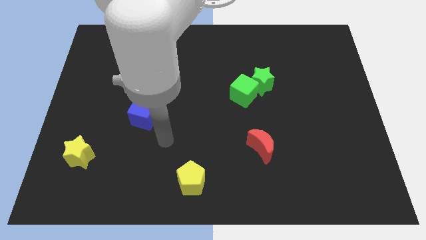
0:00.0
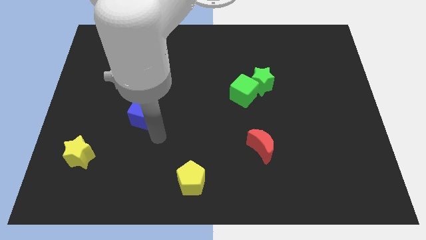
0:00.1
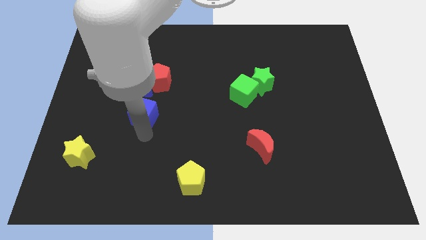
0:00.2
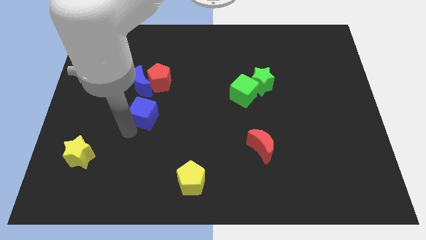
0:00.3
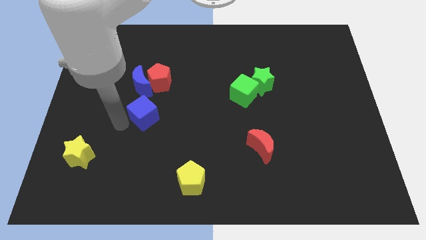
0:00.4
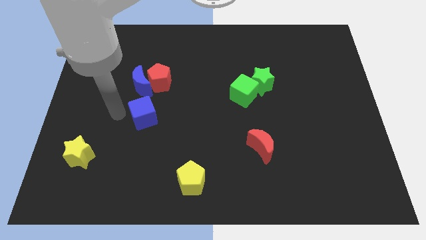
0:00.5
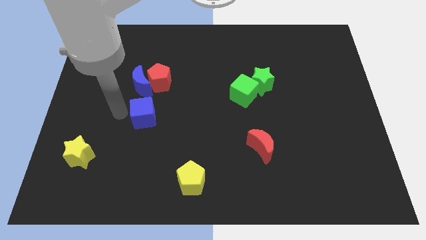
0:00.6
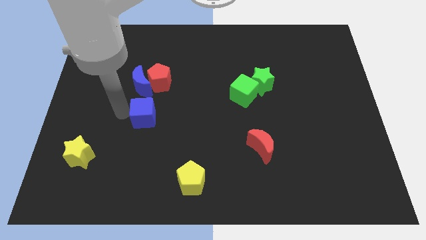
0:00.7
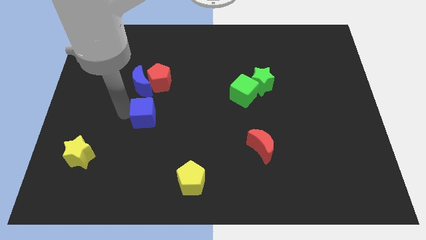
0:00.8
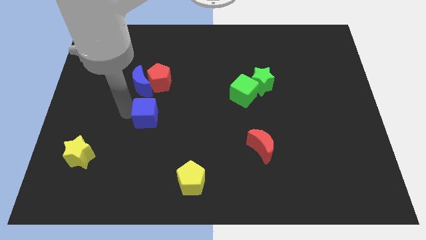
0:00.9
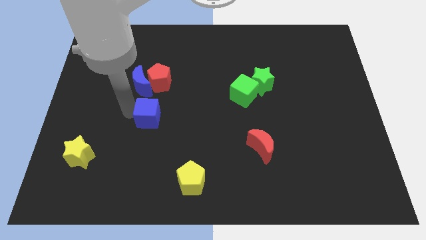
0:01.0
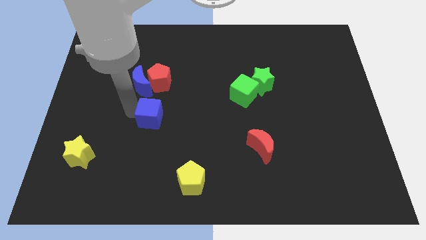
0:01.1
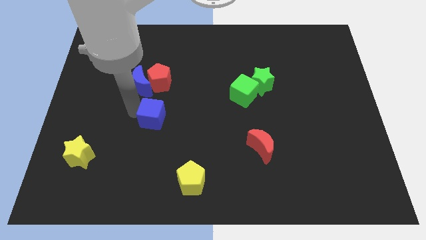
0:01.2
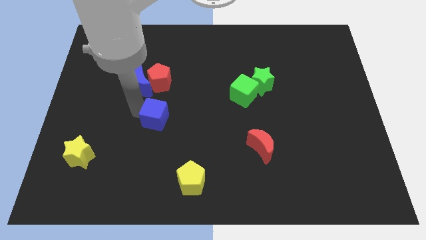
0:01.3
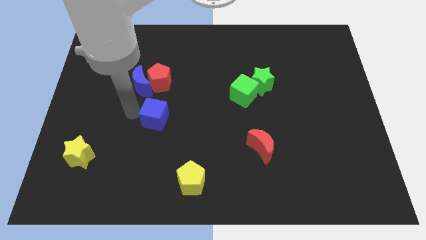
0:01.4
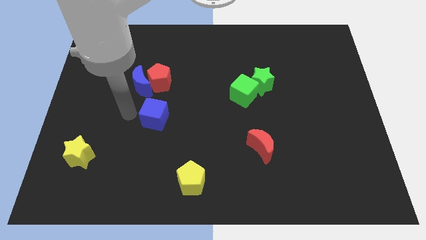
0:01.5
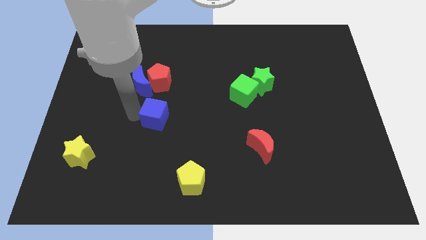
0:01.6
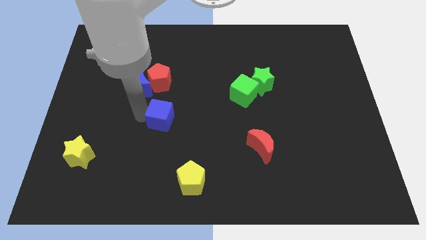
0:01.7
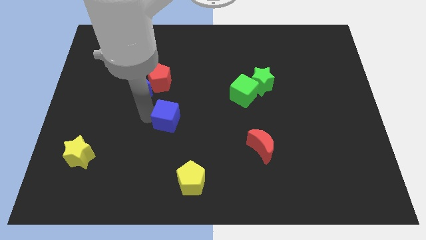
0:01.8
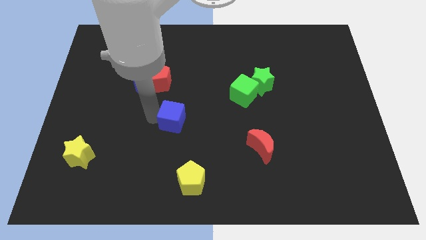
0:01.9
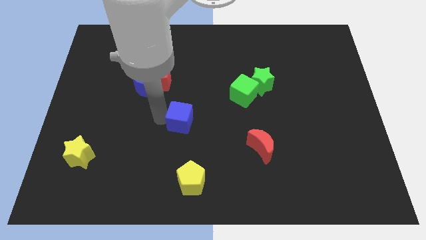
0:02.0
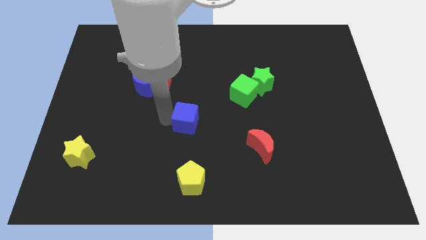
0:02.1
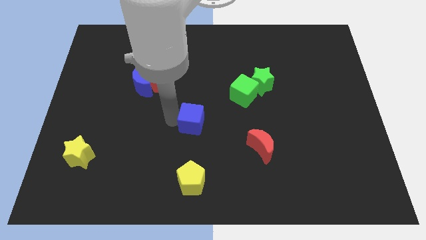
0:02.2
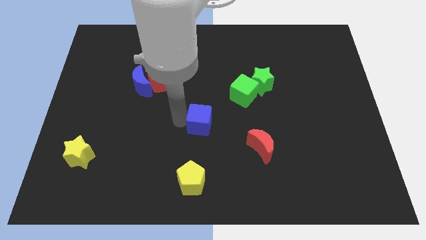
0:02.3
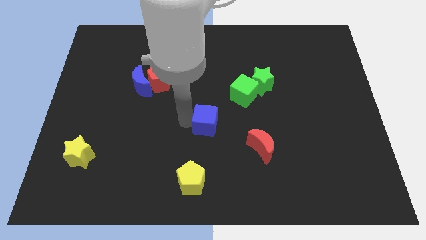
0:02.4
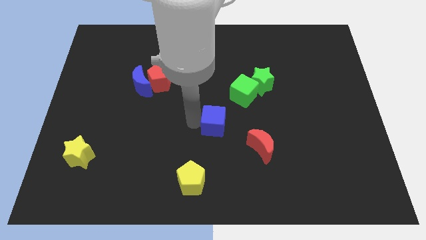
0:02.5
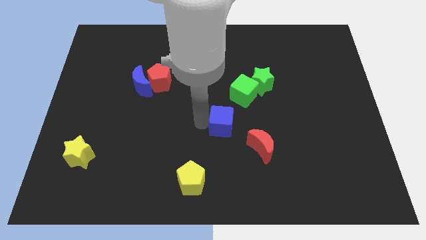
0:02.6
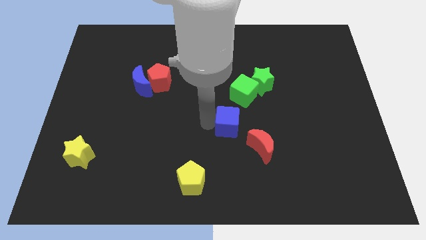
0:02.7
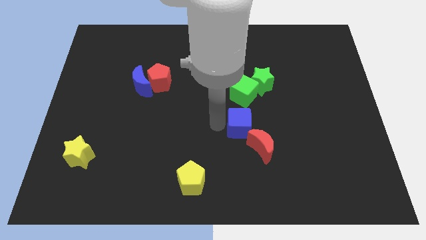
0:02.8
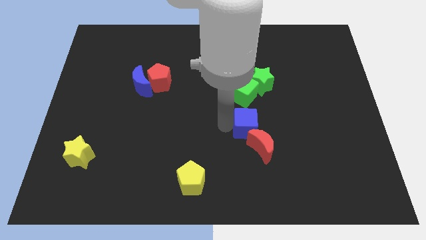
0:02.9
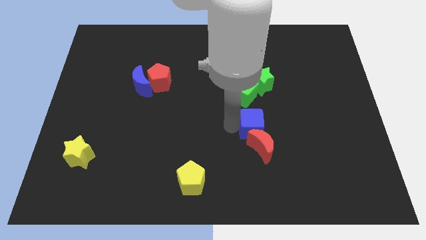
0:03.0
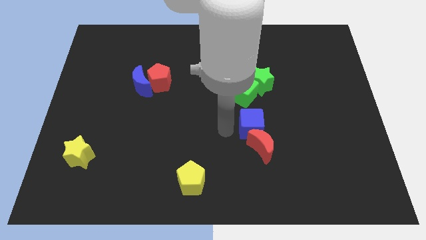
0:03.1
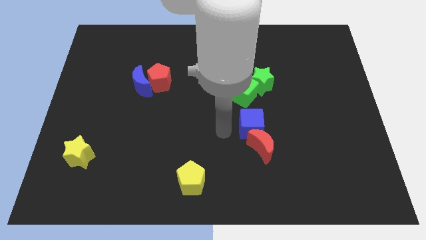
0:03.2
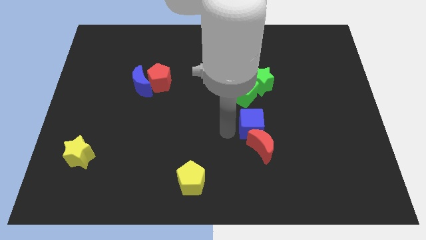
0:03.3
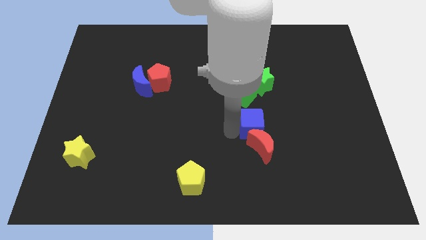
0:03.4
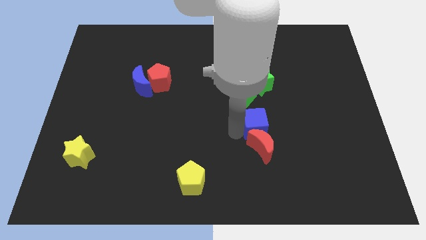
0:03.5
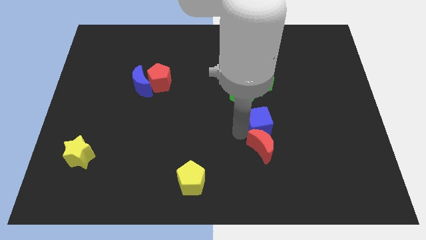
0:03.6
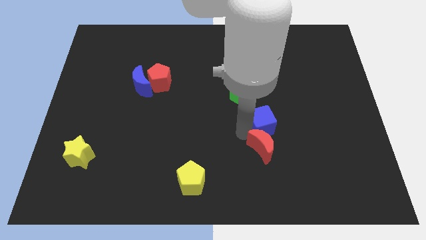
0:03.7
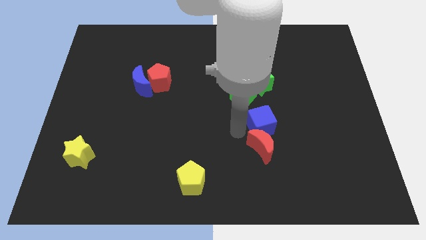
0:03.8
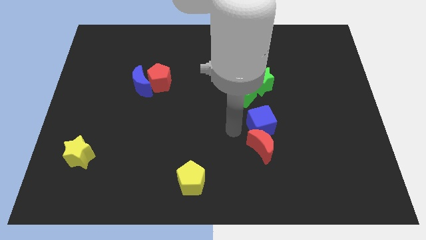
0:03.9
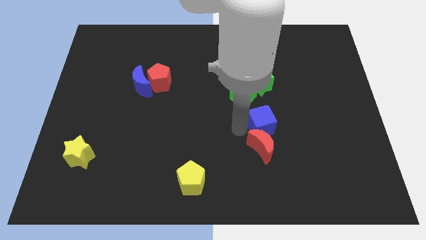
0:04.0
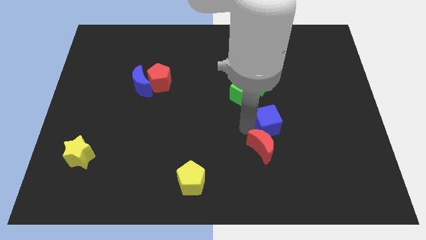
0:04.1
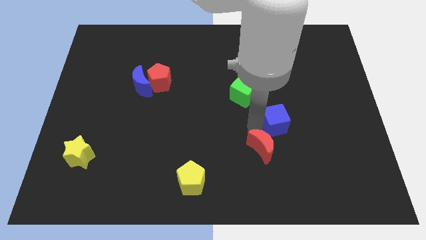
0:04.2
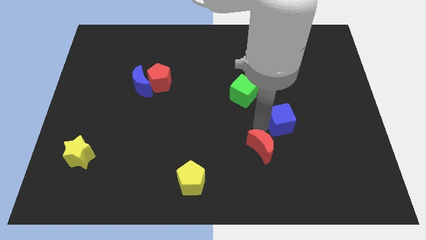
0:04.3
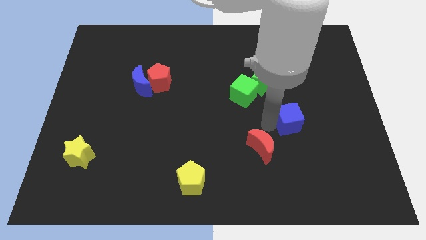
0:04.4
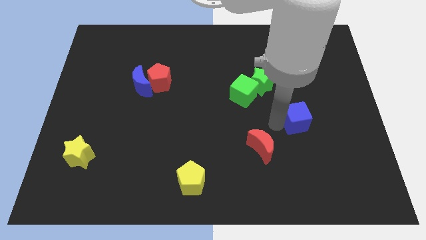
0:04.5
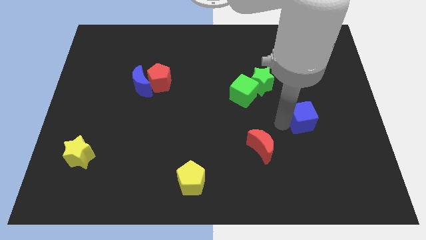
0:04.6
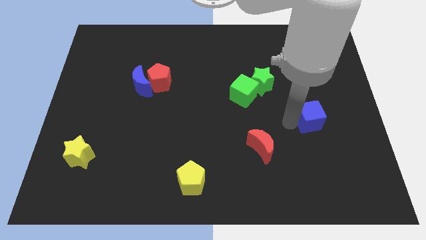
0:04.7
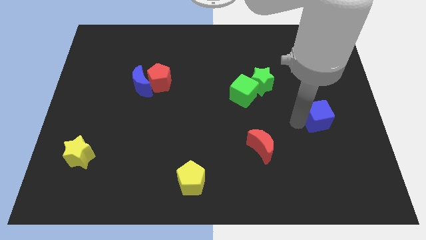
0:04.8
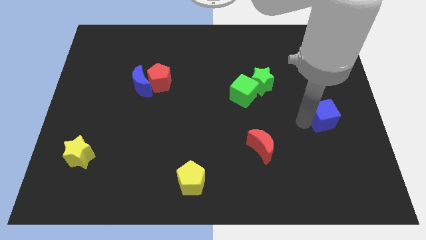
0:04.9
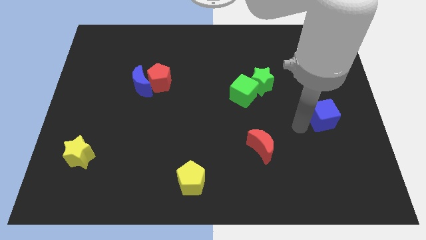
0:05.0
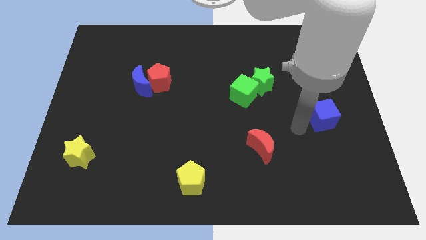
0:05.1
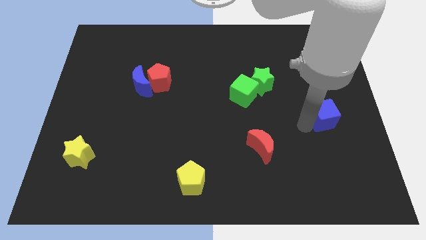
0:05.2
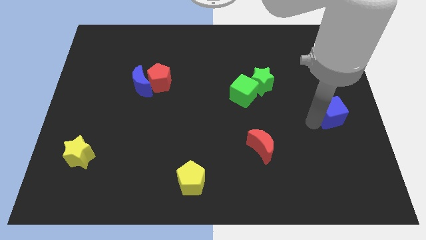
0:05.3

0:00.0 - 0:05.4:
put the blue cube to the right side

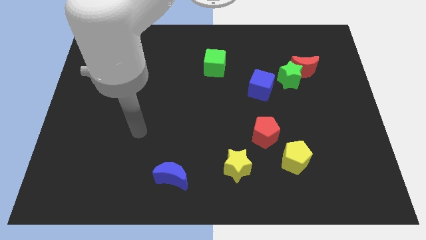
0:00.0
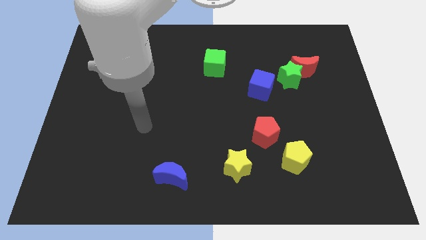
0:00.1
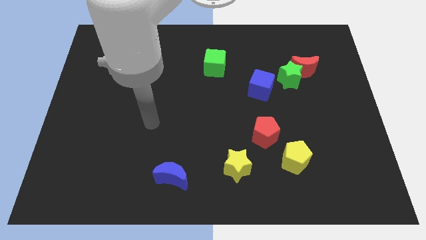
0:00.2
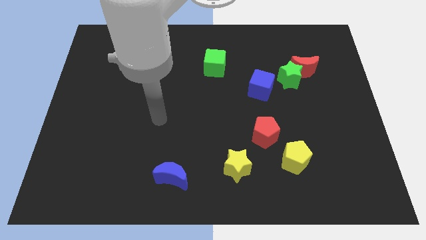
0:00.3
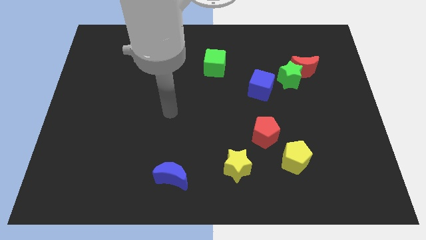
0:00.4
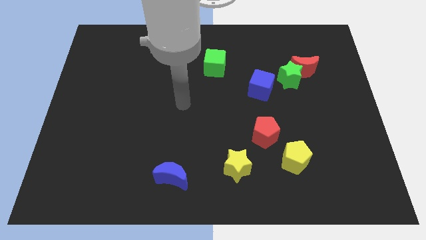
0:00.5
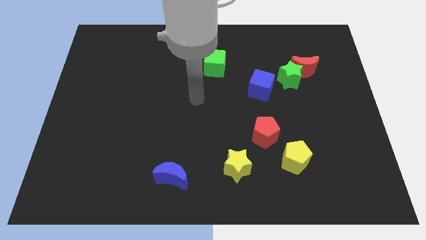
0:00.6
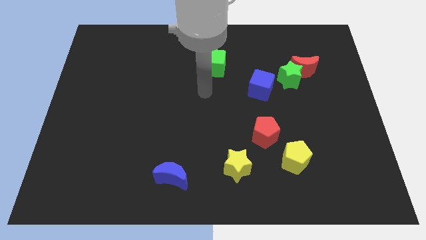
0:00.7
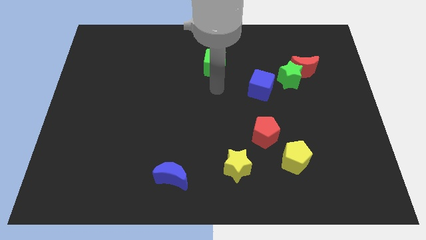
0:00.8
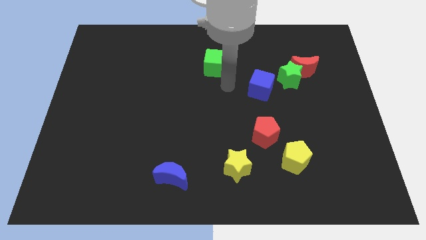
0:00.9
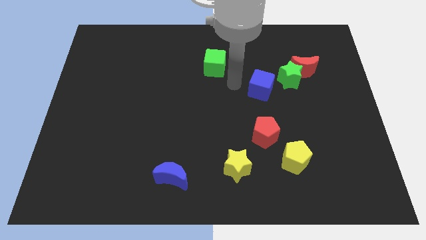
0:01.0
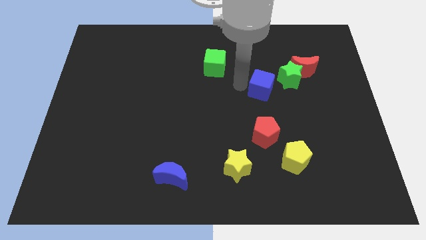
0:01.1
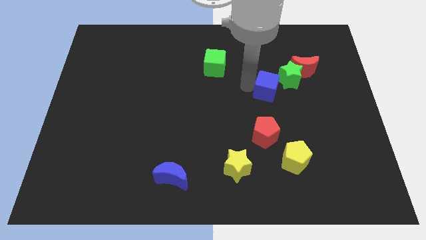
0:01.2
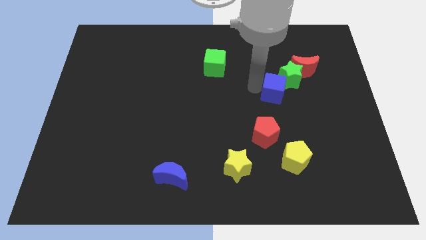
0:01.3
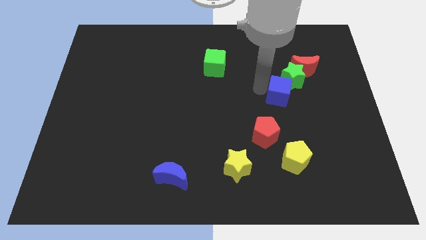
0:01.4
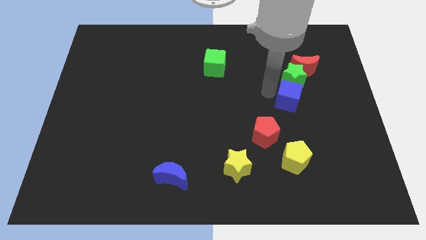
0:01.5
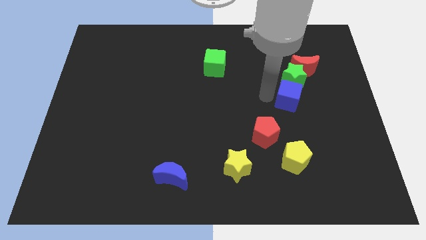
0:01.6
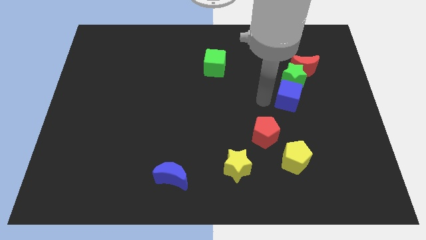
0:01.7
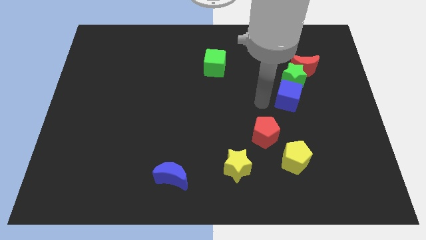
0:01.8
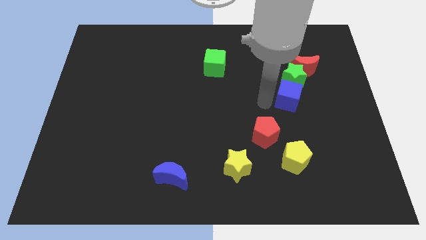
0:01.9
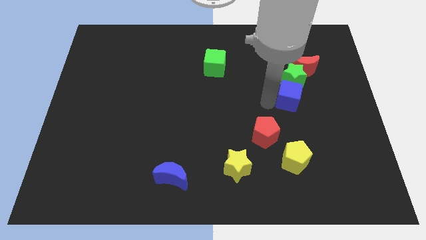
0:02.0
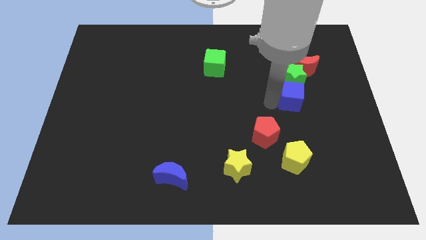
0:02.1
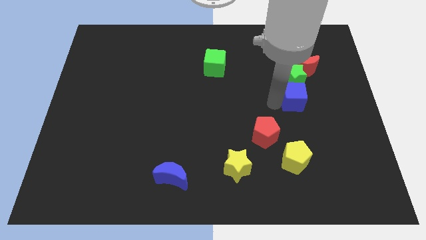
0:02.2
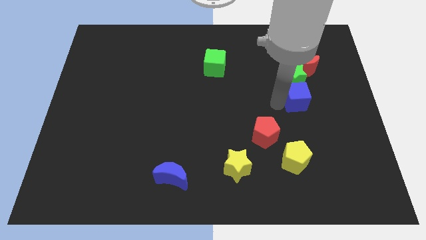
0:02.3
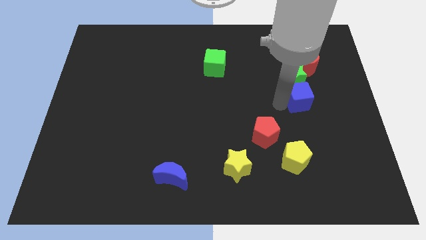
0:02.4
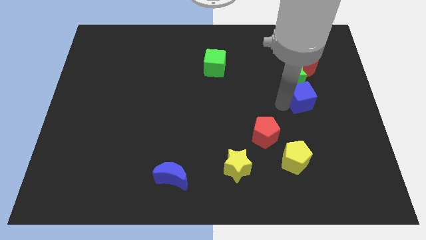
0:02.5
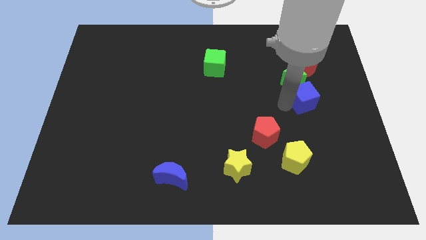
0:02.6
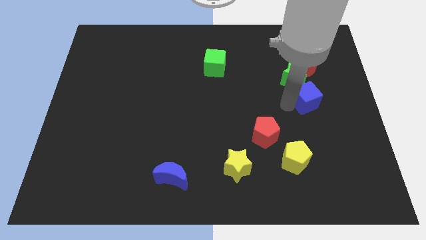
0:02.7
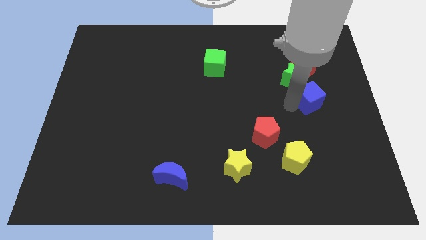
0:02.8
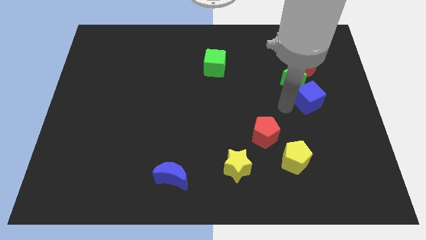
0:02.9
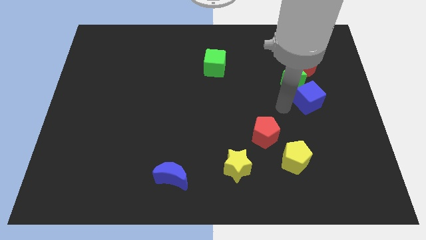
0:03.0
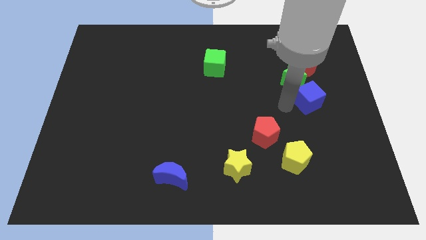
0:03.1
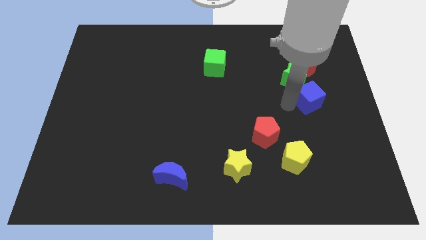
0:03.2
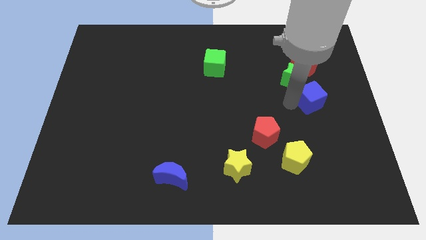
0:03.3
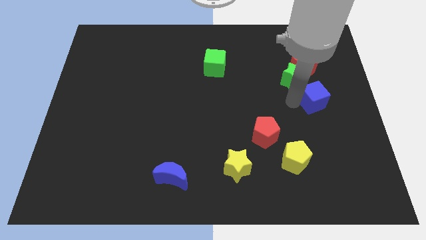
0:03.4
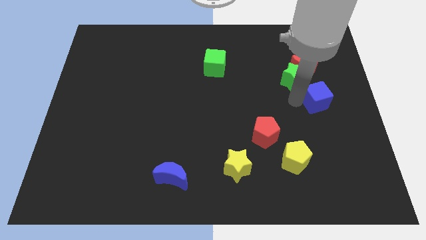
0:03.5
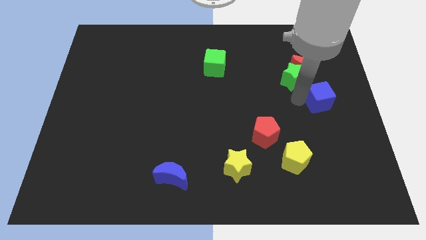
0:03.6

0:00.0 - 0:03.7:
push the blue cube to the right side
